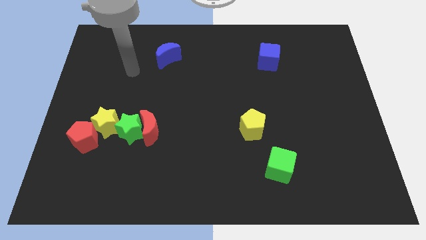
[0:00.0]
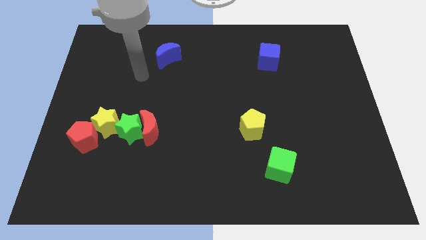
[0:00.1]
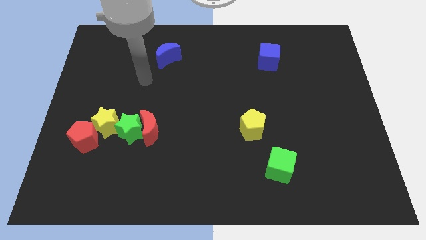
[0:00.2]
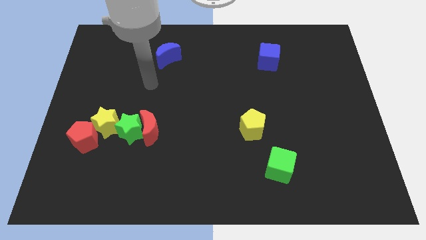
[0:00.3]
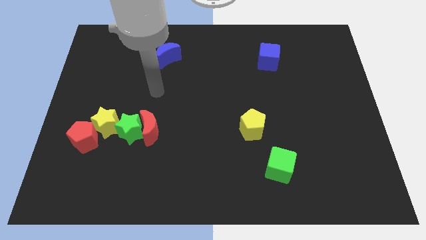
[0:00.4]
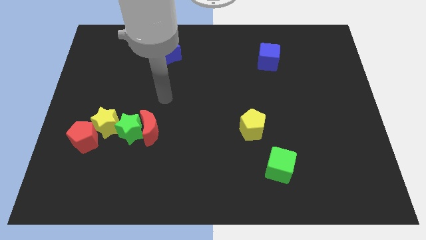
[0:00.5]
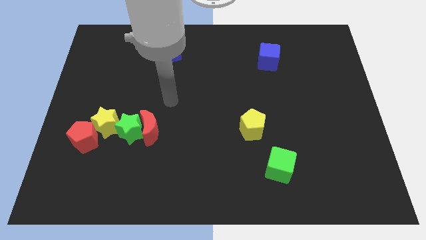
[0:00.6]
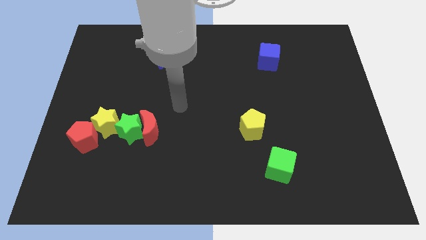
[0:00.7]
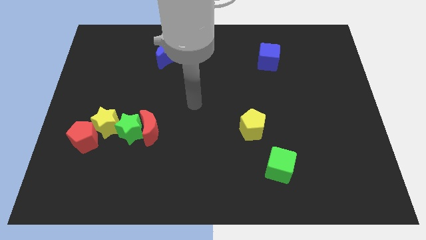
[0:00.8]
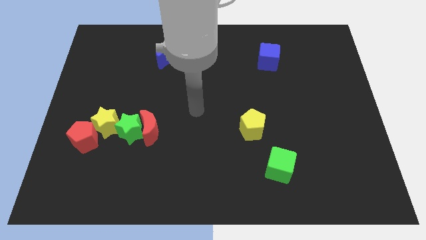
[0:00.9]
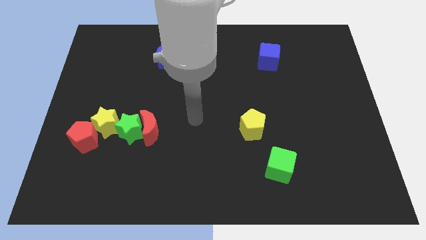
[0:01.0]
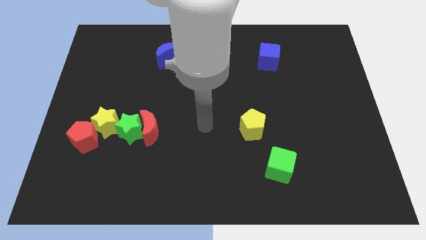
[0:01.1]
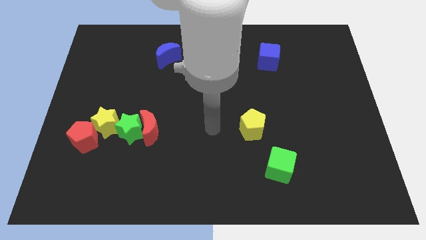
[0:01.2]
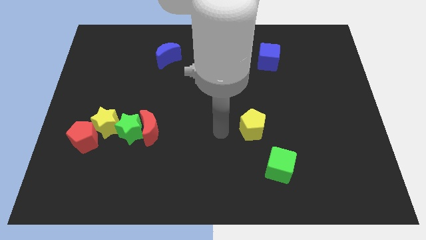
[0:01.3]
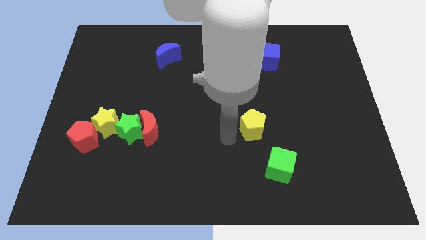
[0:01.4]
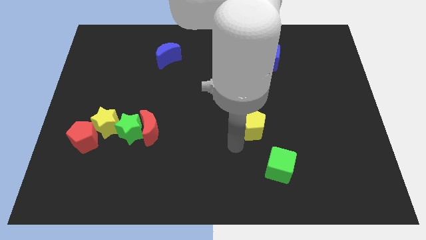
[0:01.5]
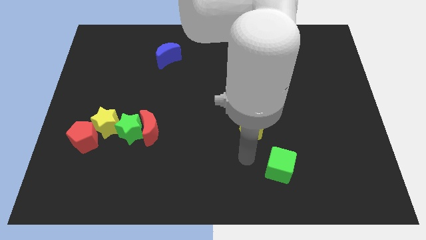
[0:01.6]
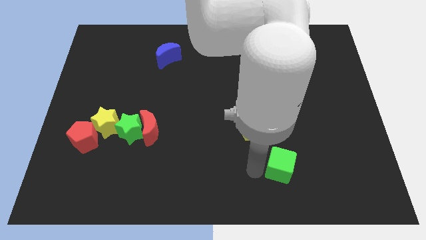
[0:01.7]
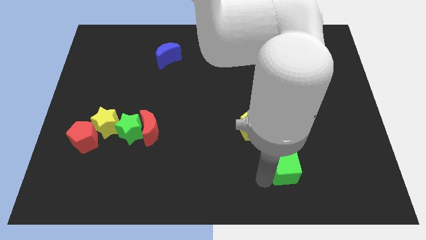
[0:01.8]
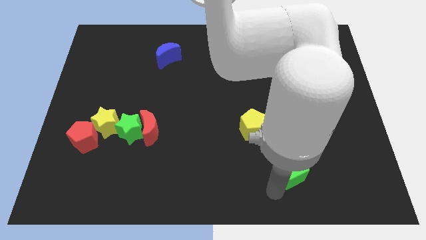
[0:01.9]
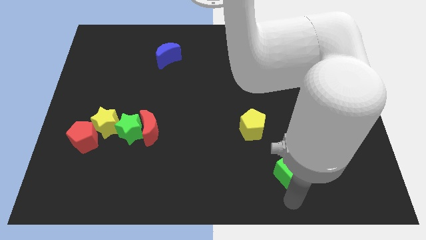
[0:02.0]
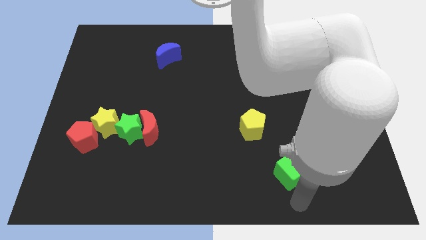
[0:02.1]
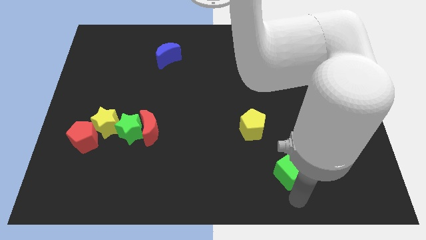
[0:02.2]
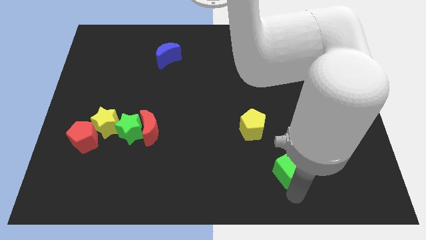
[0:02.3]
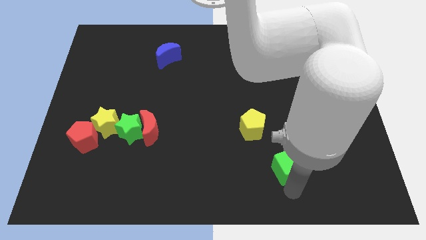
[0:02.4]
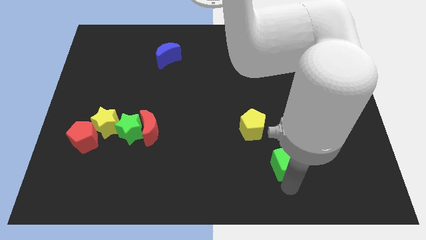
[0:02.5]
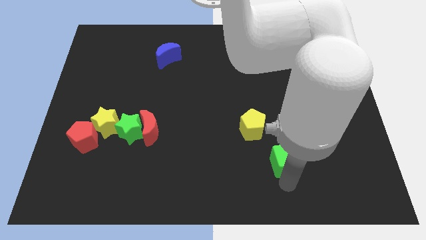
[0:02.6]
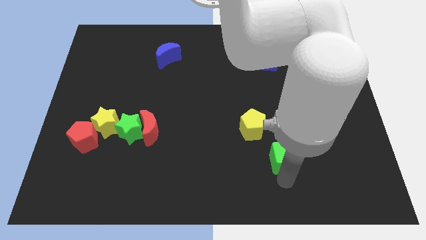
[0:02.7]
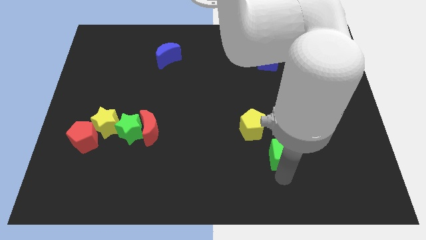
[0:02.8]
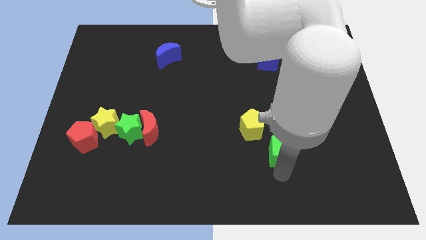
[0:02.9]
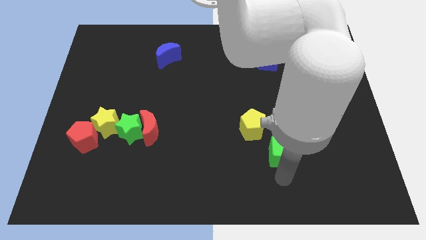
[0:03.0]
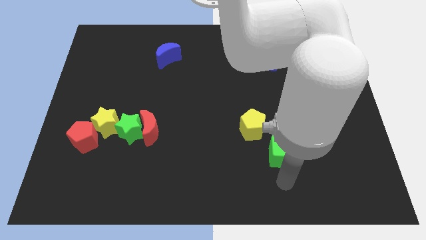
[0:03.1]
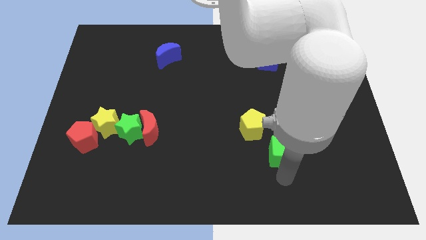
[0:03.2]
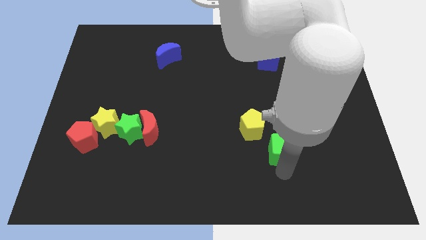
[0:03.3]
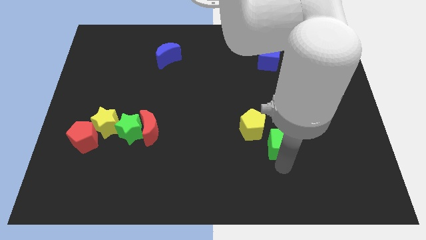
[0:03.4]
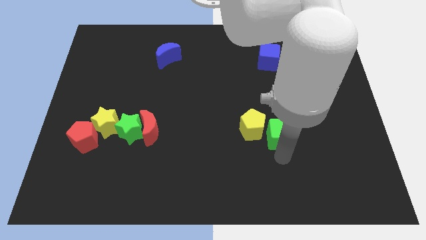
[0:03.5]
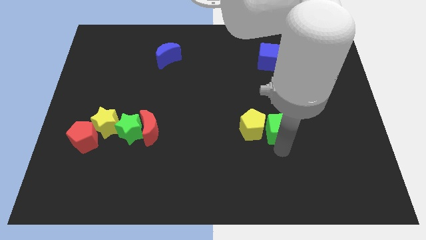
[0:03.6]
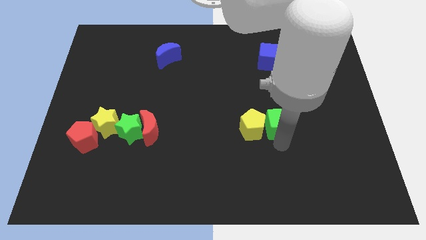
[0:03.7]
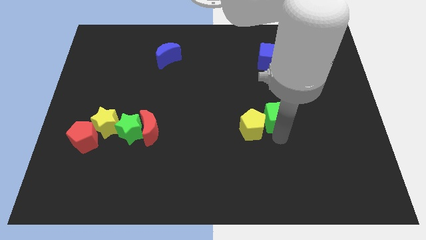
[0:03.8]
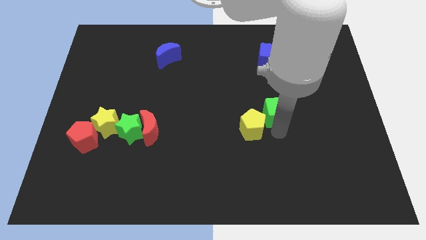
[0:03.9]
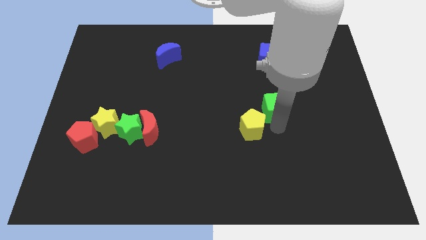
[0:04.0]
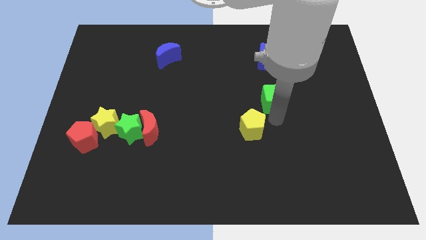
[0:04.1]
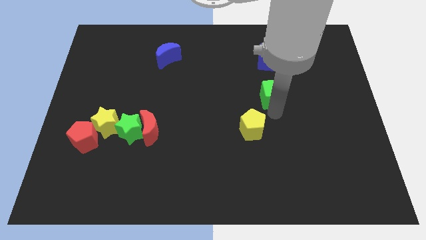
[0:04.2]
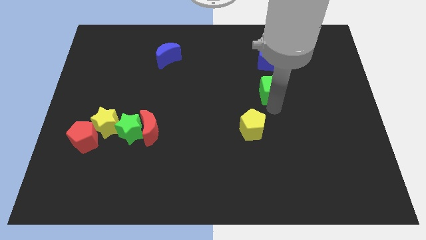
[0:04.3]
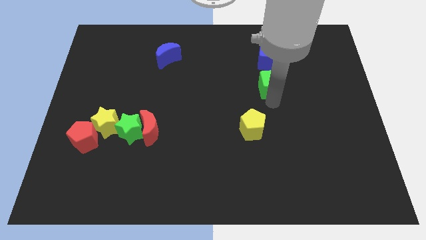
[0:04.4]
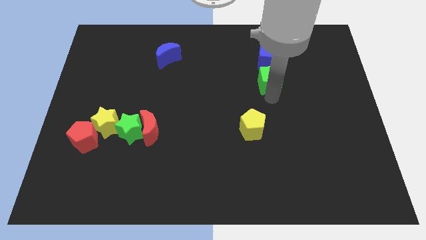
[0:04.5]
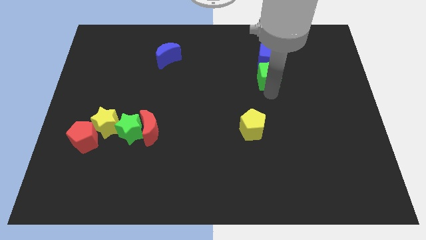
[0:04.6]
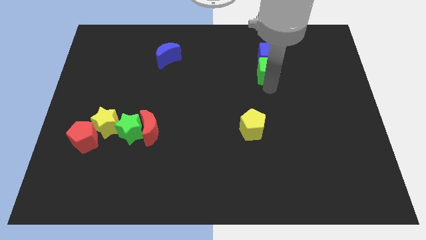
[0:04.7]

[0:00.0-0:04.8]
put the green cube close to the blue cube

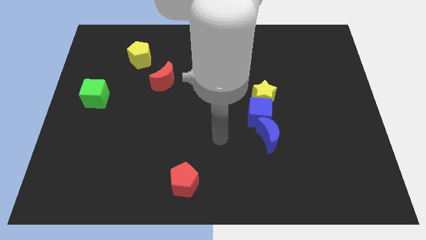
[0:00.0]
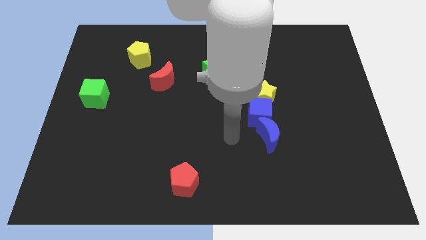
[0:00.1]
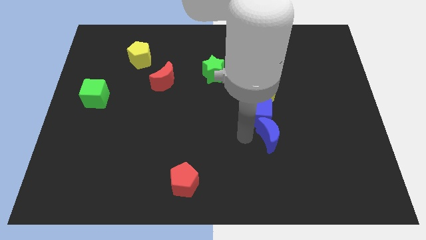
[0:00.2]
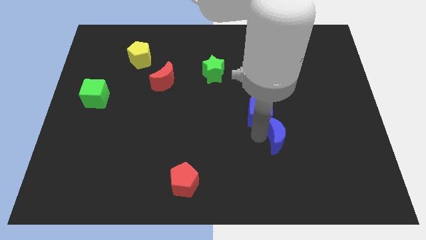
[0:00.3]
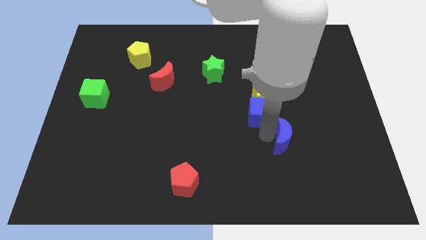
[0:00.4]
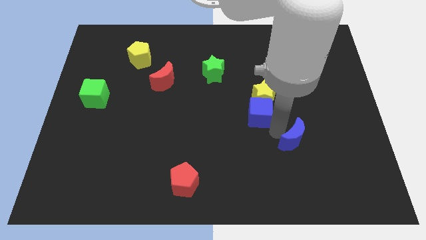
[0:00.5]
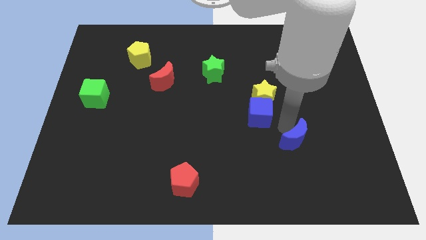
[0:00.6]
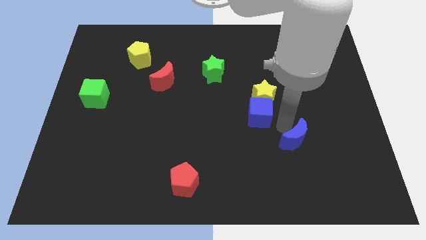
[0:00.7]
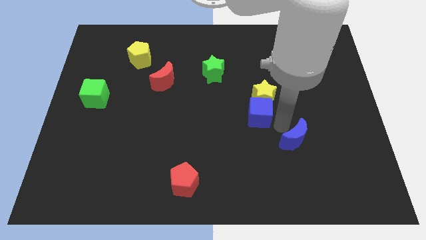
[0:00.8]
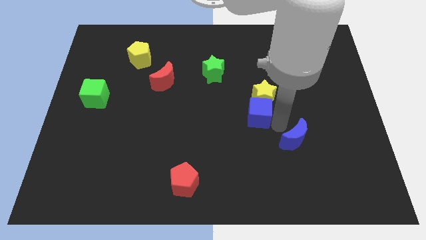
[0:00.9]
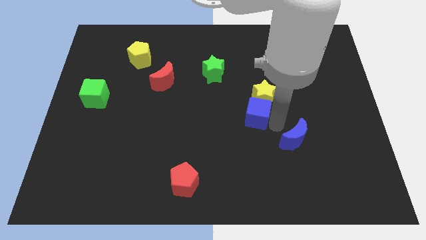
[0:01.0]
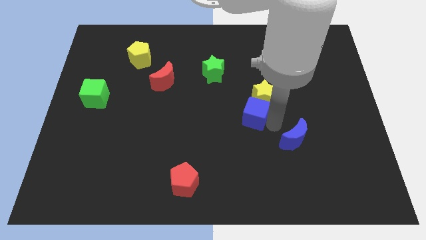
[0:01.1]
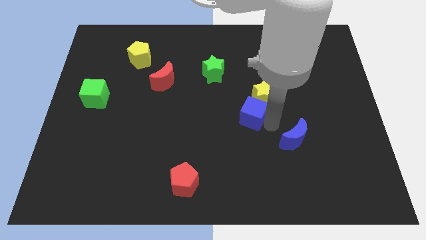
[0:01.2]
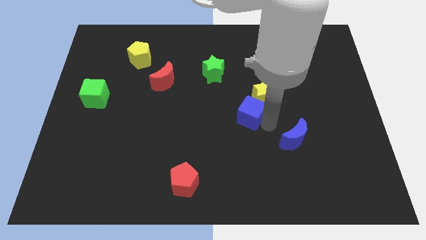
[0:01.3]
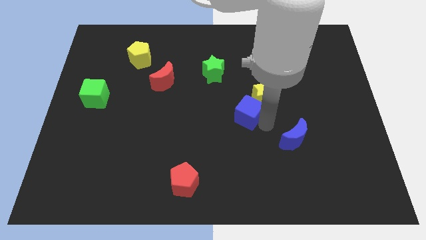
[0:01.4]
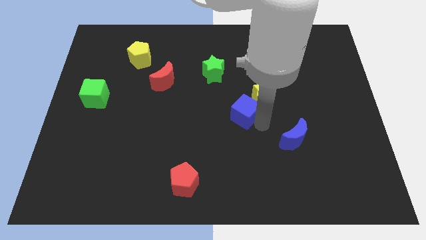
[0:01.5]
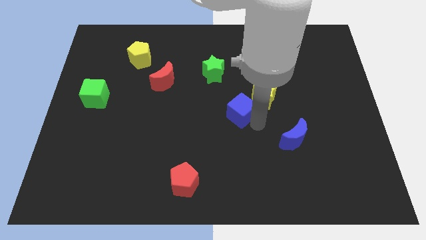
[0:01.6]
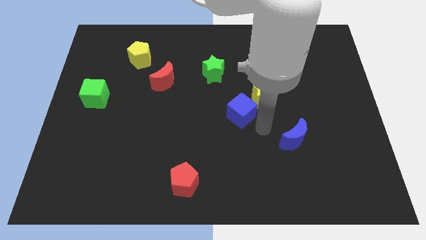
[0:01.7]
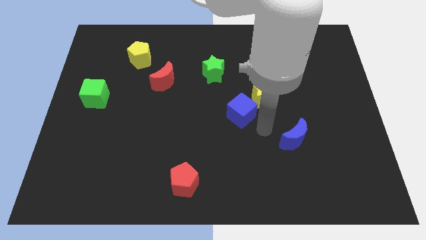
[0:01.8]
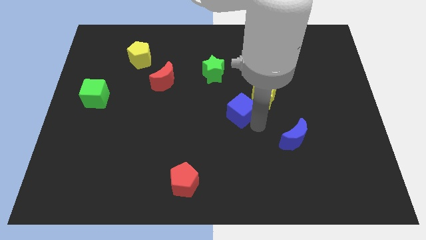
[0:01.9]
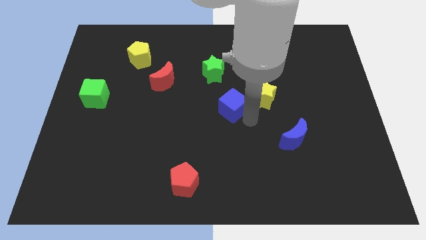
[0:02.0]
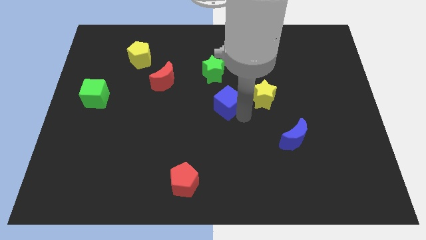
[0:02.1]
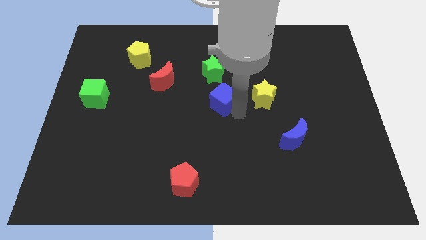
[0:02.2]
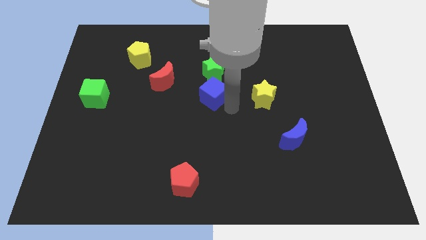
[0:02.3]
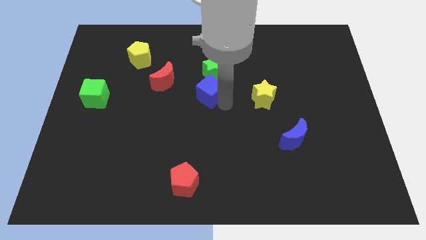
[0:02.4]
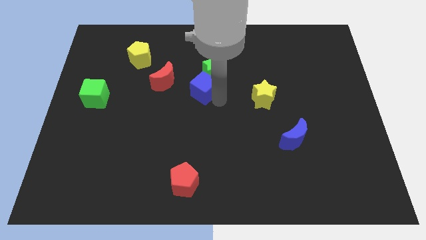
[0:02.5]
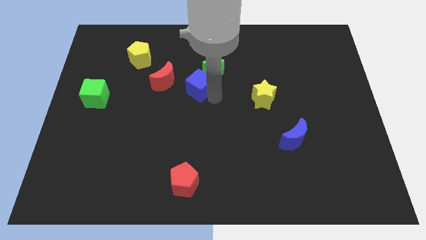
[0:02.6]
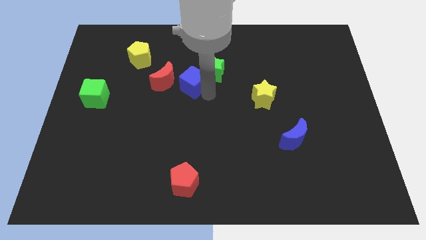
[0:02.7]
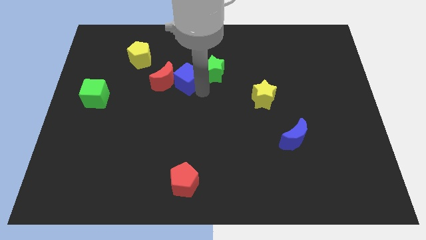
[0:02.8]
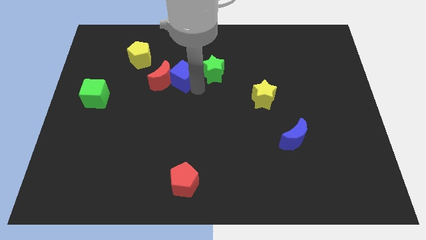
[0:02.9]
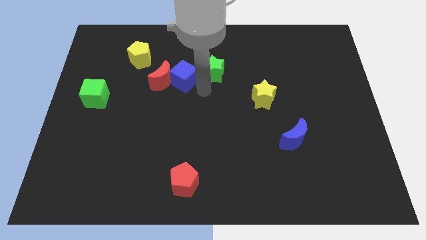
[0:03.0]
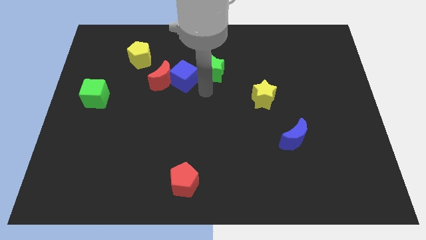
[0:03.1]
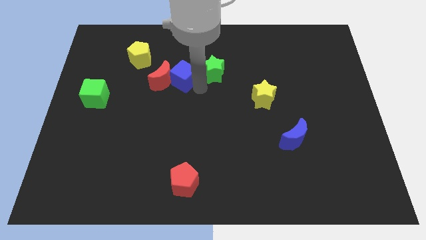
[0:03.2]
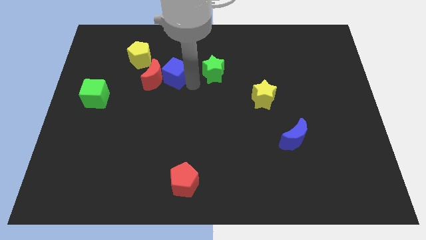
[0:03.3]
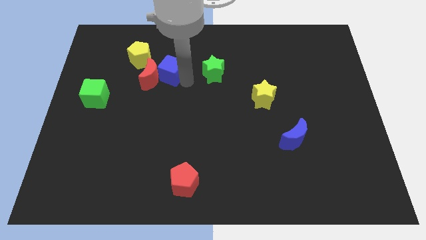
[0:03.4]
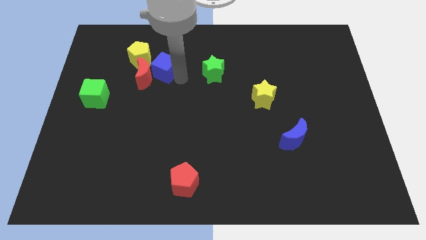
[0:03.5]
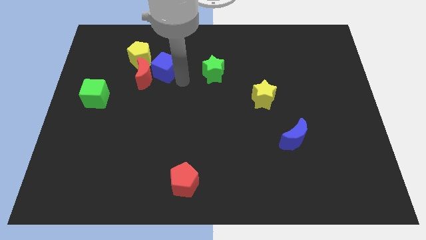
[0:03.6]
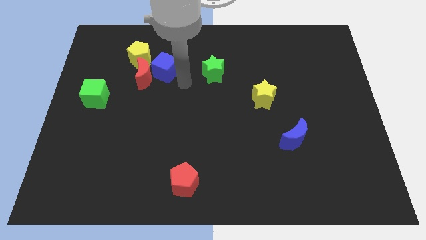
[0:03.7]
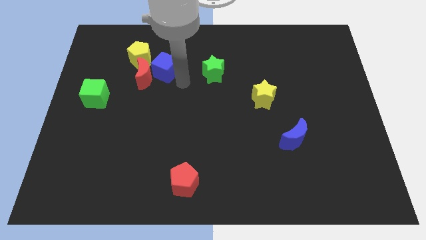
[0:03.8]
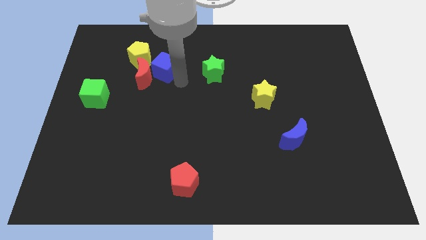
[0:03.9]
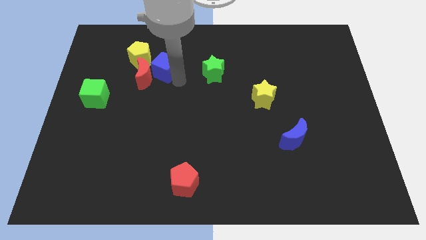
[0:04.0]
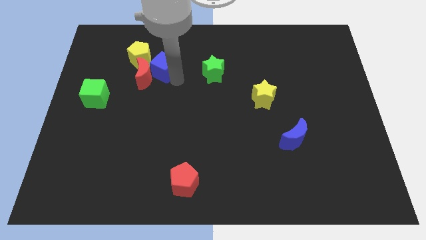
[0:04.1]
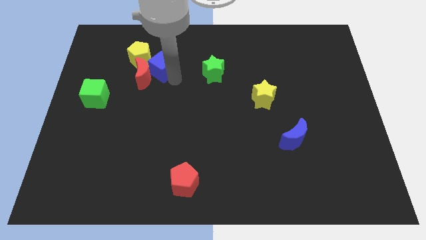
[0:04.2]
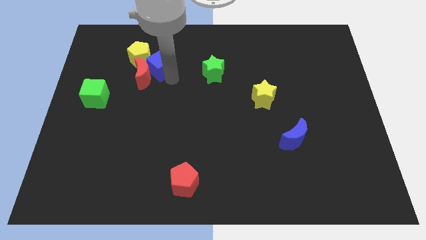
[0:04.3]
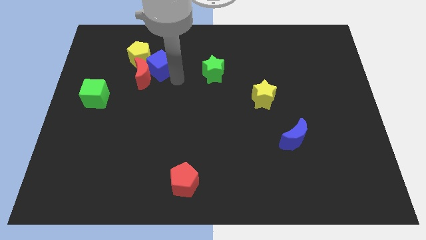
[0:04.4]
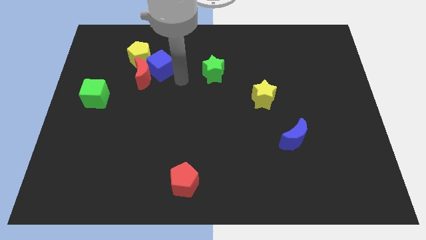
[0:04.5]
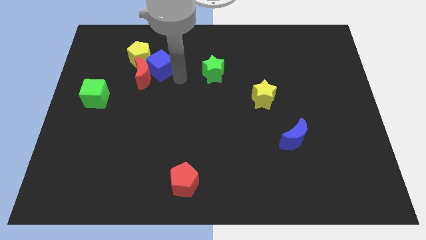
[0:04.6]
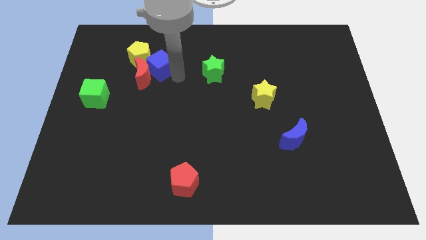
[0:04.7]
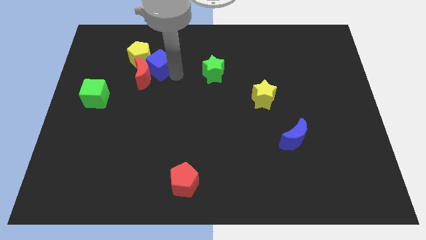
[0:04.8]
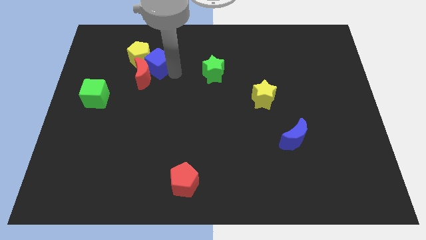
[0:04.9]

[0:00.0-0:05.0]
put the blue cube close to the yellow pentagon
